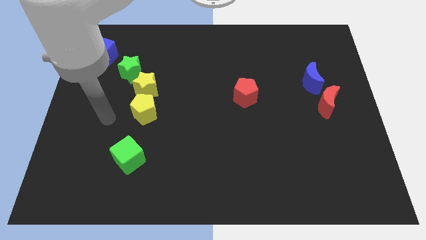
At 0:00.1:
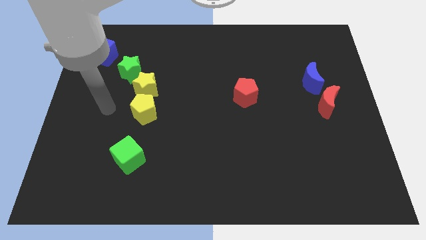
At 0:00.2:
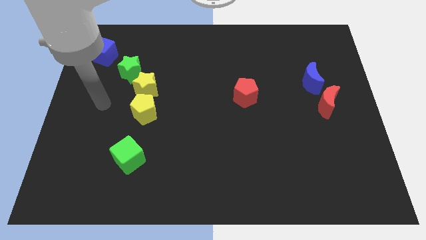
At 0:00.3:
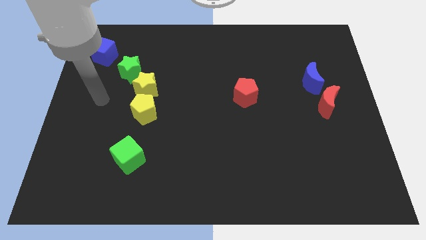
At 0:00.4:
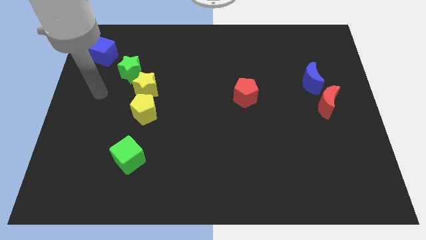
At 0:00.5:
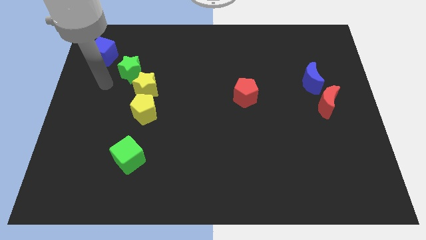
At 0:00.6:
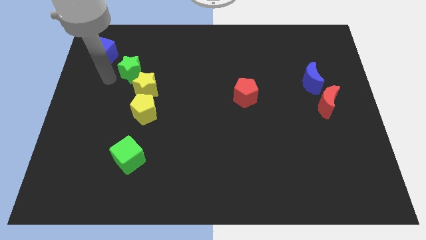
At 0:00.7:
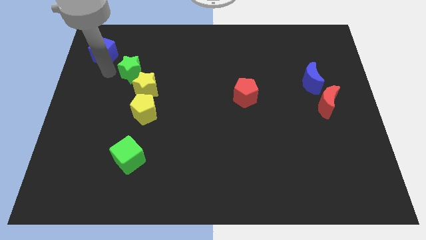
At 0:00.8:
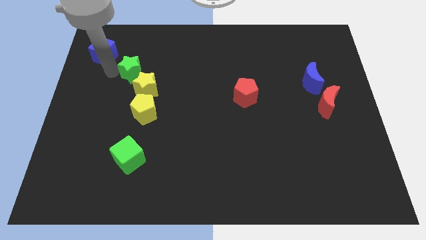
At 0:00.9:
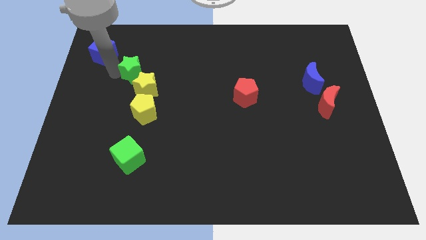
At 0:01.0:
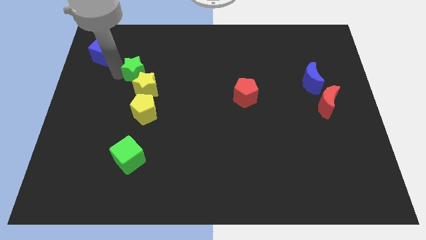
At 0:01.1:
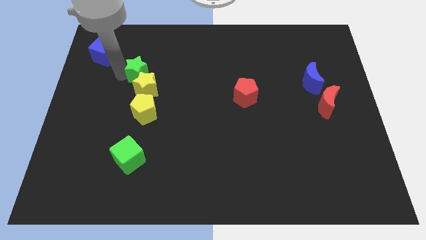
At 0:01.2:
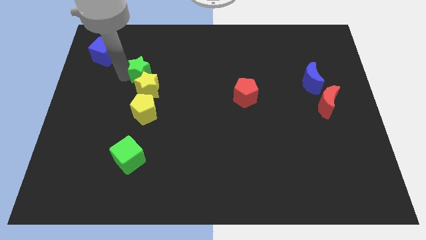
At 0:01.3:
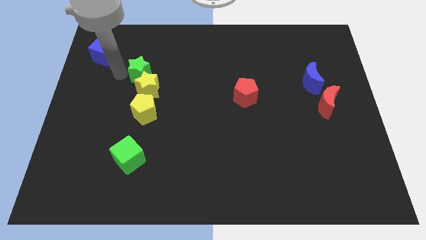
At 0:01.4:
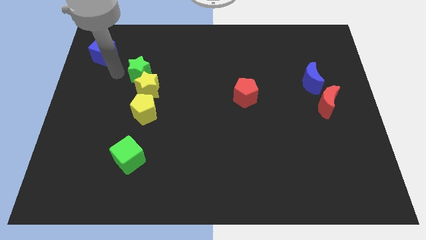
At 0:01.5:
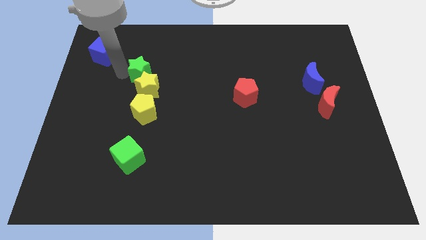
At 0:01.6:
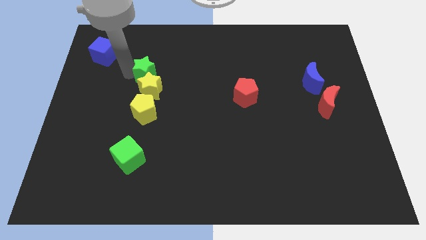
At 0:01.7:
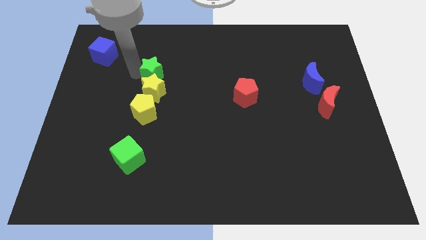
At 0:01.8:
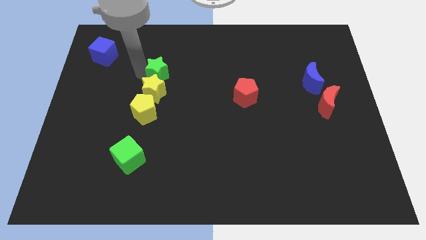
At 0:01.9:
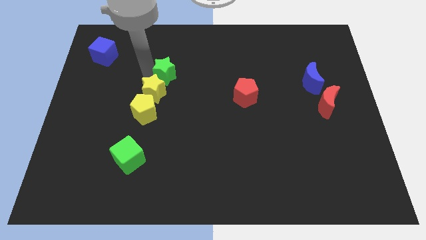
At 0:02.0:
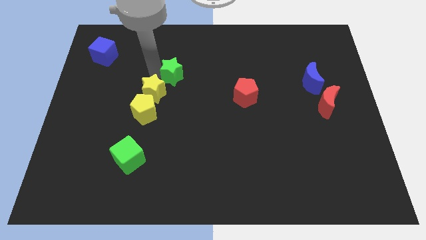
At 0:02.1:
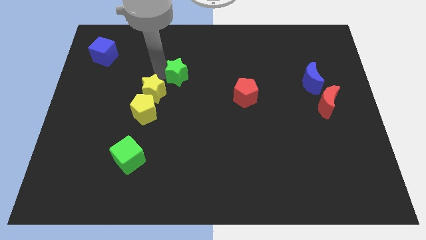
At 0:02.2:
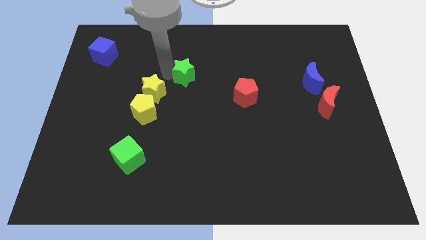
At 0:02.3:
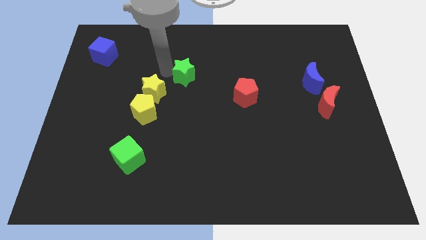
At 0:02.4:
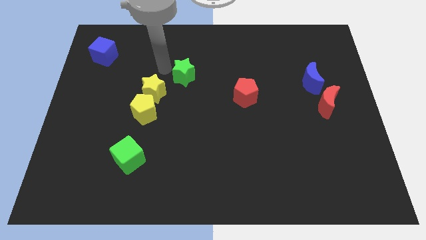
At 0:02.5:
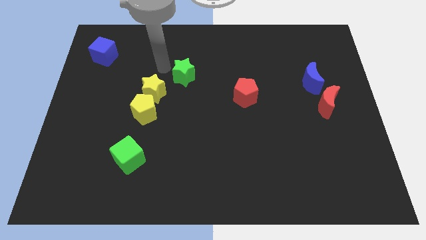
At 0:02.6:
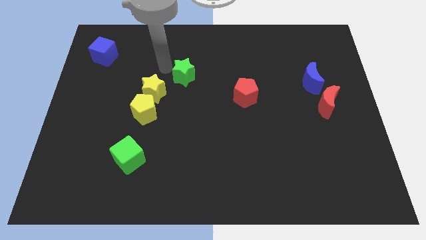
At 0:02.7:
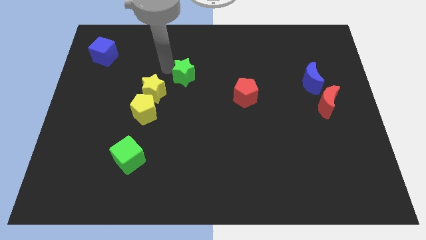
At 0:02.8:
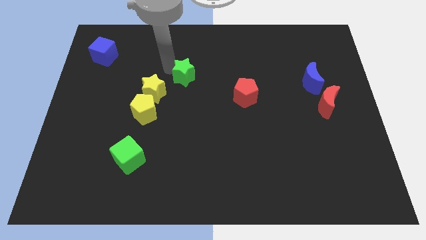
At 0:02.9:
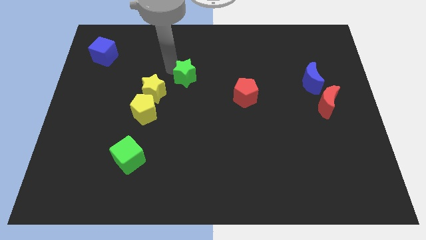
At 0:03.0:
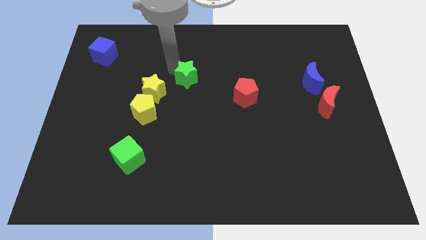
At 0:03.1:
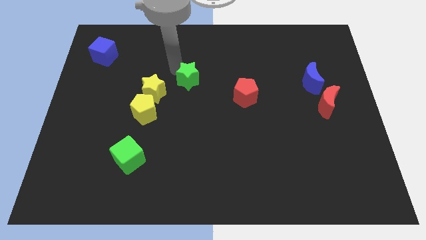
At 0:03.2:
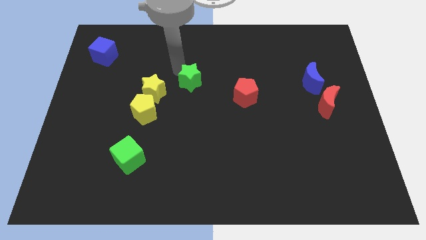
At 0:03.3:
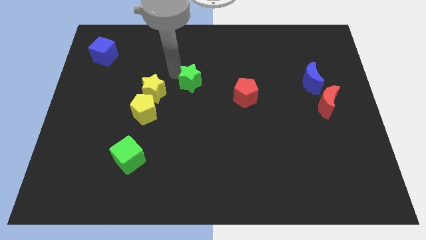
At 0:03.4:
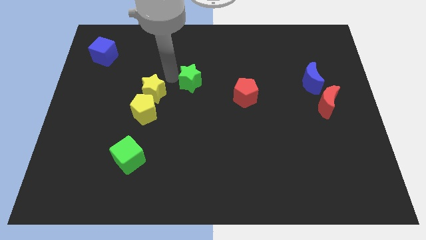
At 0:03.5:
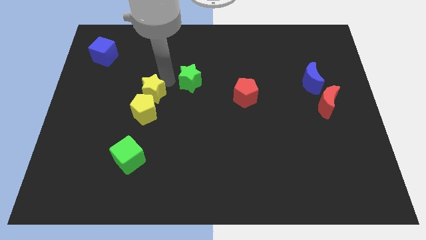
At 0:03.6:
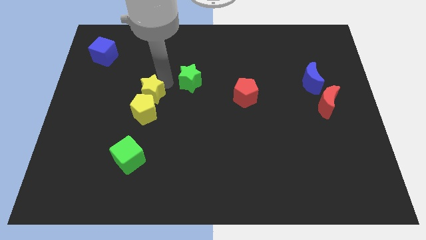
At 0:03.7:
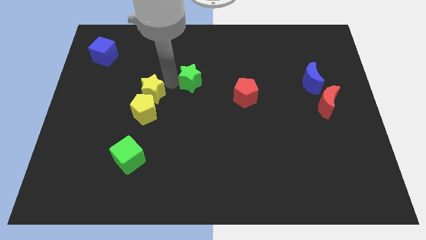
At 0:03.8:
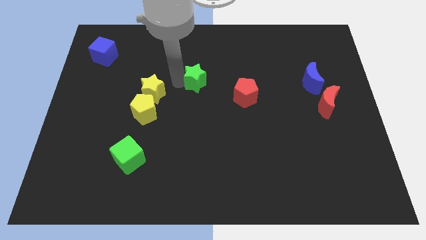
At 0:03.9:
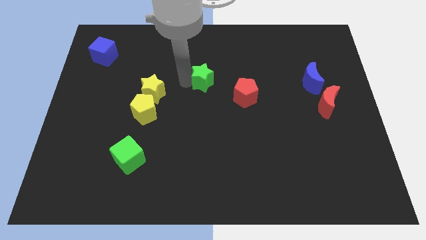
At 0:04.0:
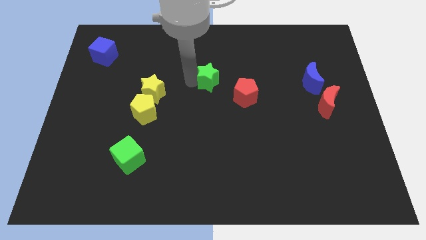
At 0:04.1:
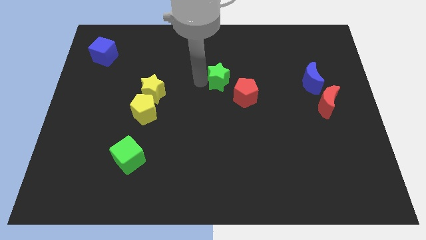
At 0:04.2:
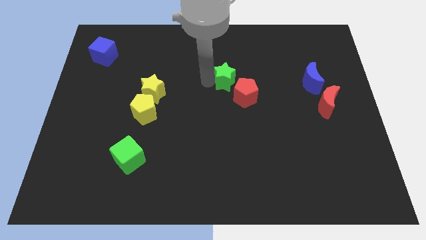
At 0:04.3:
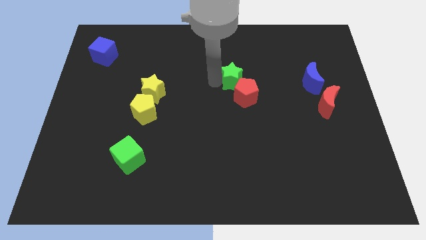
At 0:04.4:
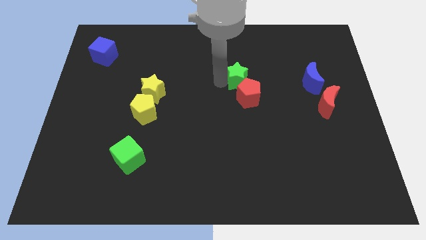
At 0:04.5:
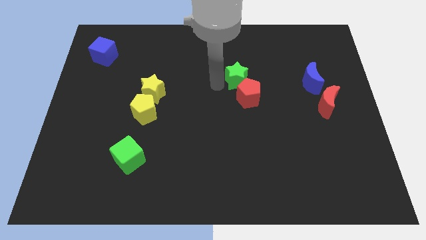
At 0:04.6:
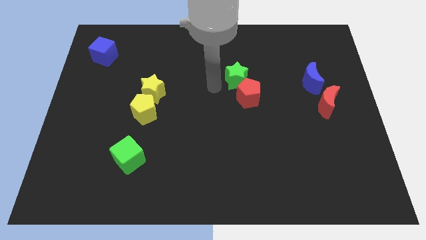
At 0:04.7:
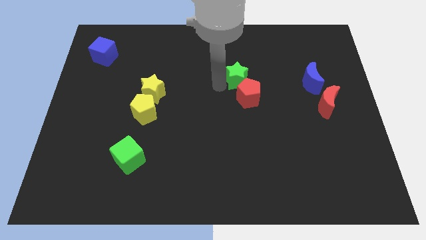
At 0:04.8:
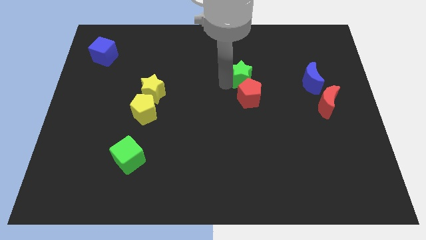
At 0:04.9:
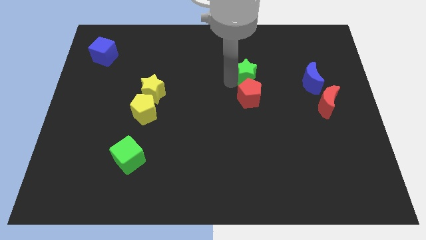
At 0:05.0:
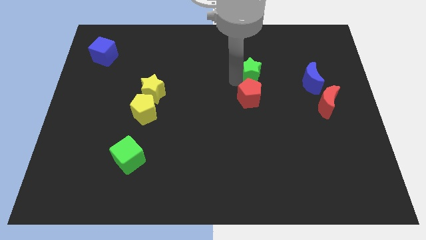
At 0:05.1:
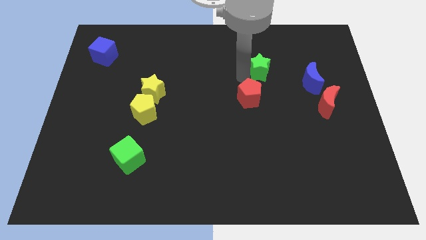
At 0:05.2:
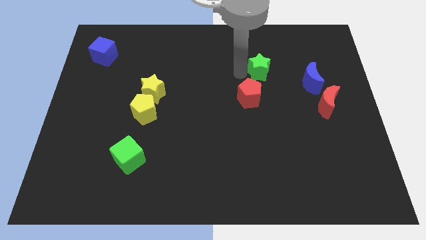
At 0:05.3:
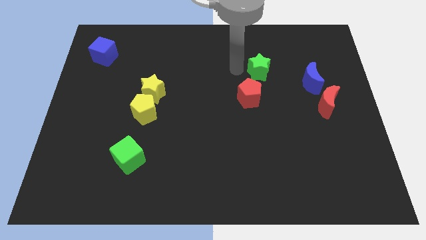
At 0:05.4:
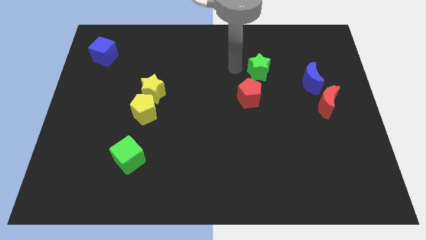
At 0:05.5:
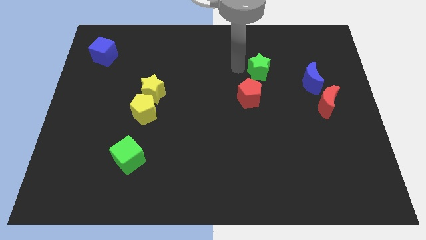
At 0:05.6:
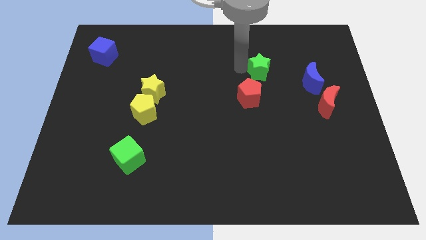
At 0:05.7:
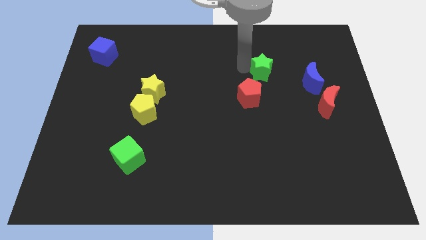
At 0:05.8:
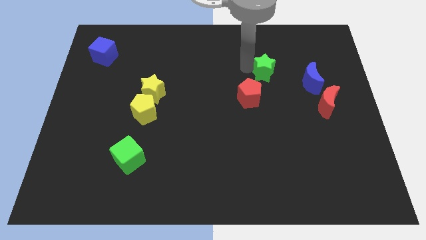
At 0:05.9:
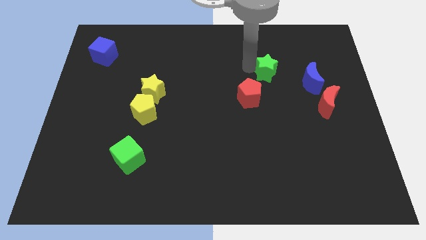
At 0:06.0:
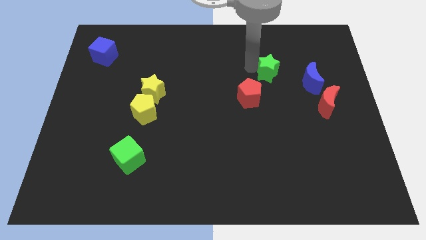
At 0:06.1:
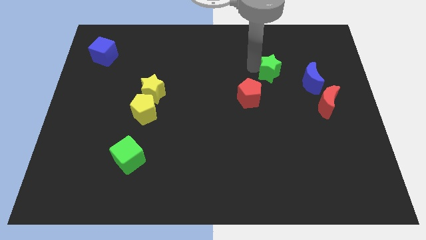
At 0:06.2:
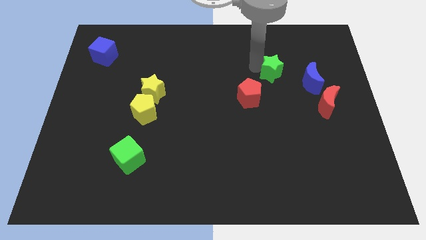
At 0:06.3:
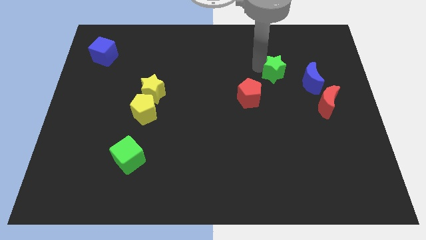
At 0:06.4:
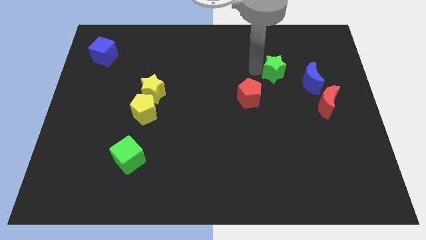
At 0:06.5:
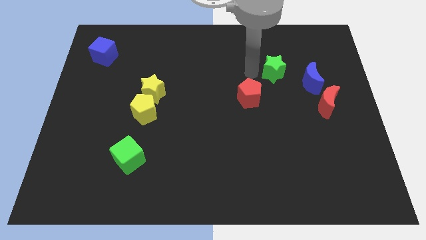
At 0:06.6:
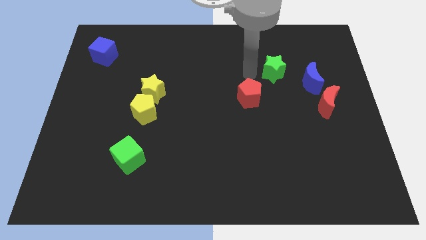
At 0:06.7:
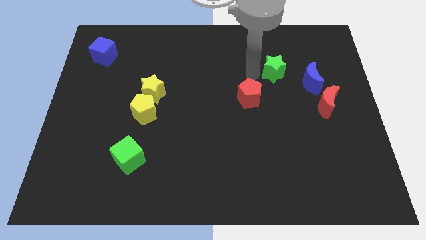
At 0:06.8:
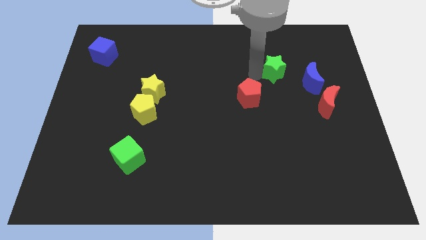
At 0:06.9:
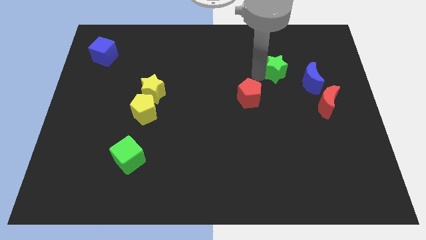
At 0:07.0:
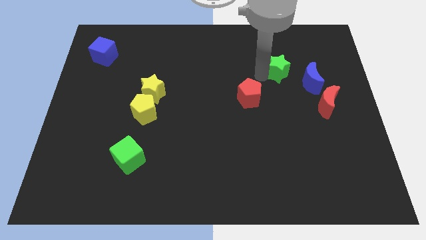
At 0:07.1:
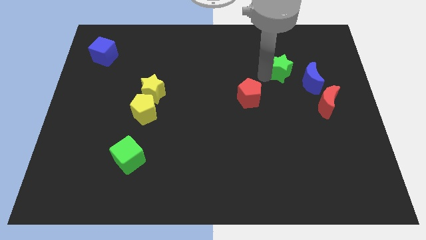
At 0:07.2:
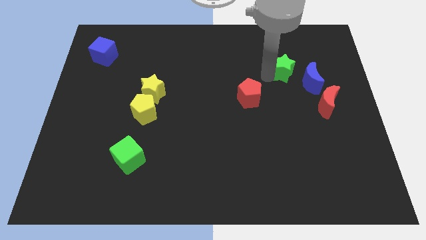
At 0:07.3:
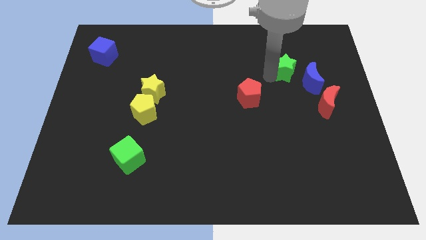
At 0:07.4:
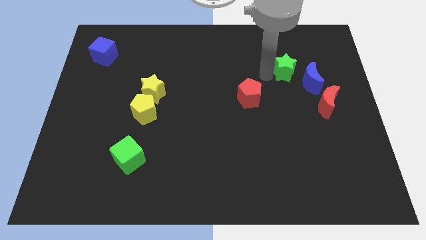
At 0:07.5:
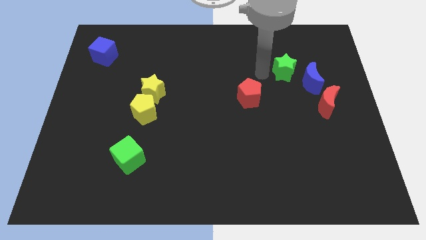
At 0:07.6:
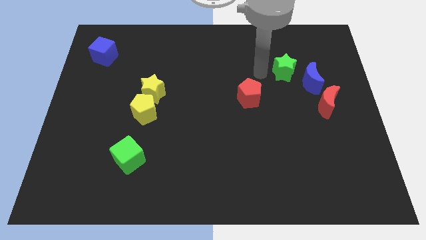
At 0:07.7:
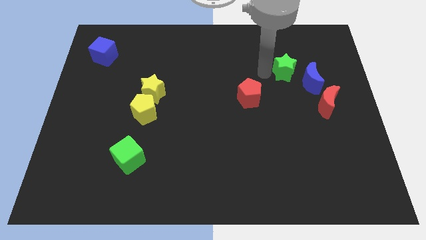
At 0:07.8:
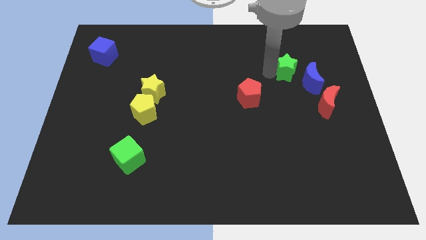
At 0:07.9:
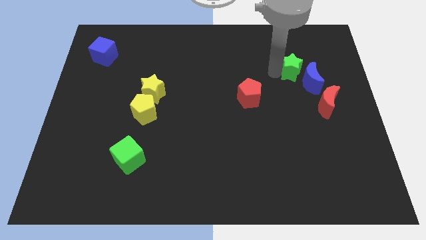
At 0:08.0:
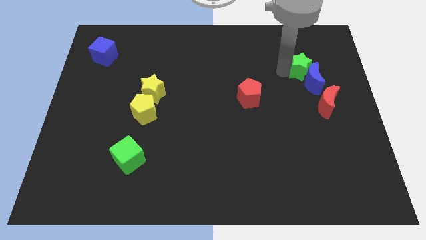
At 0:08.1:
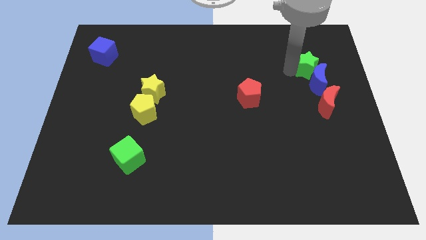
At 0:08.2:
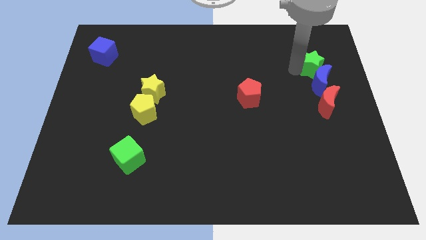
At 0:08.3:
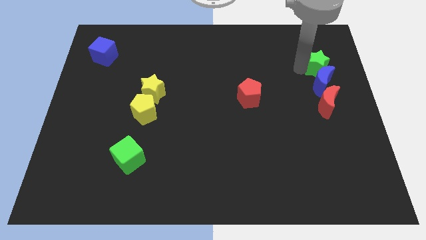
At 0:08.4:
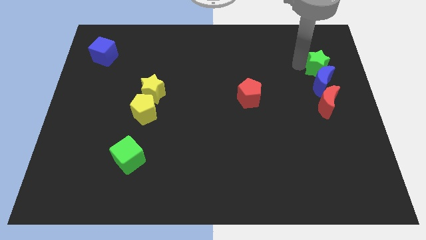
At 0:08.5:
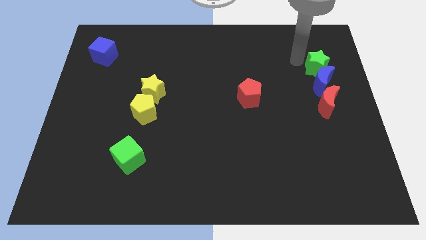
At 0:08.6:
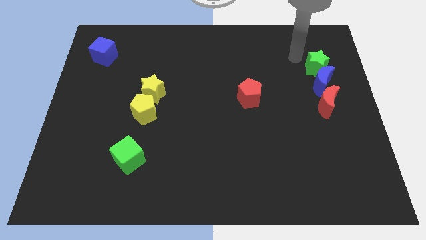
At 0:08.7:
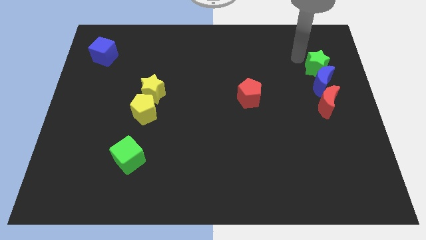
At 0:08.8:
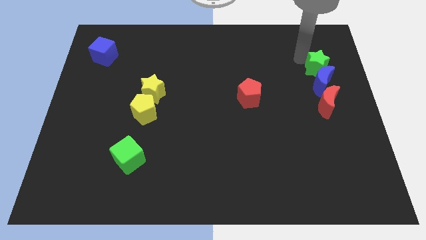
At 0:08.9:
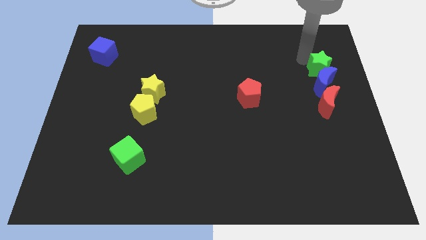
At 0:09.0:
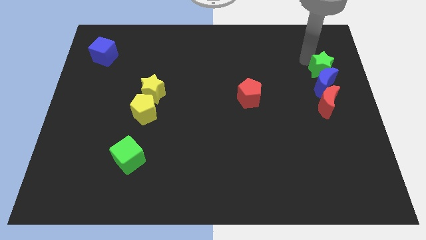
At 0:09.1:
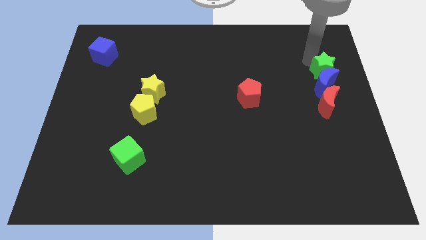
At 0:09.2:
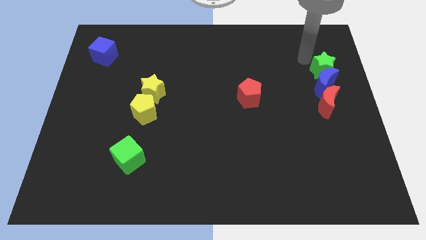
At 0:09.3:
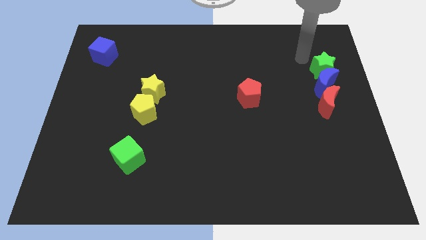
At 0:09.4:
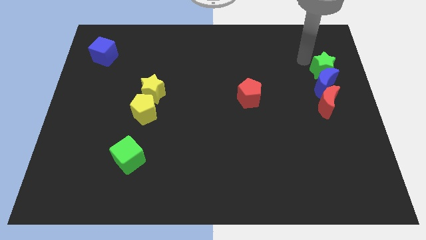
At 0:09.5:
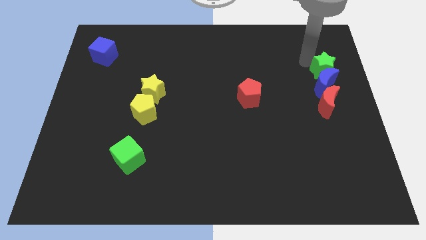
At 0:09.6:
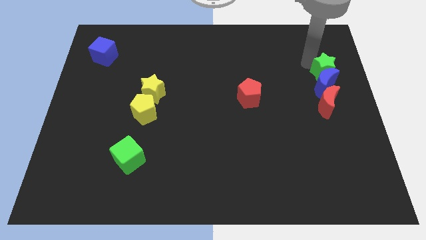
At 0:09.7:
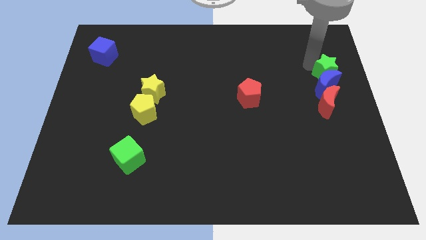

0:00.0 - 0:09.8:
put the green star to the right side
